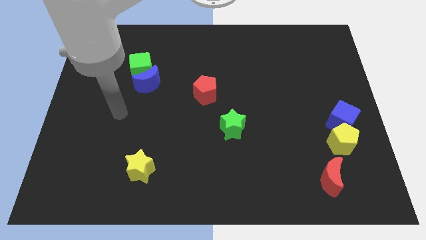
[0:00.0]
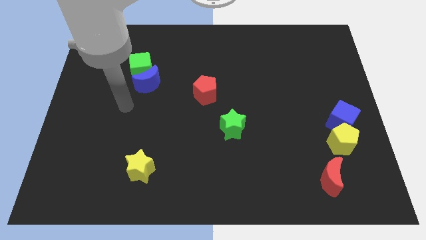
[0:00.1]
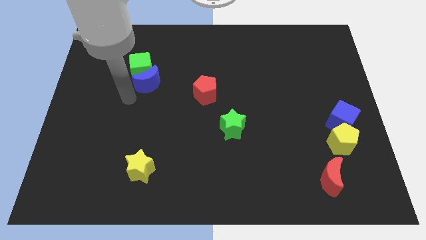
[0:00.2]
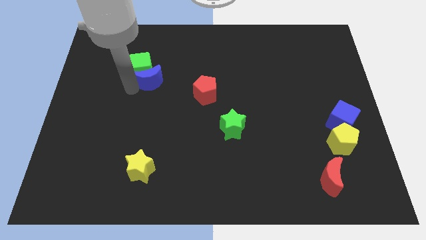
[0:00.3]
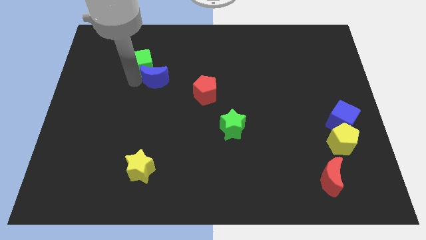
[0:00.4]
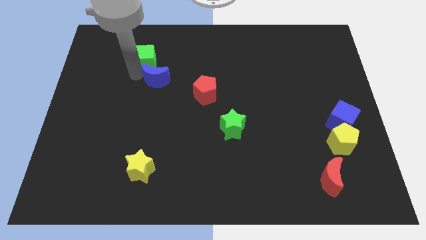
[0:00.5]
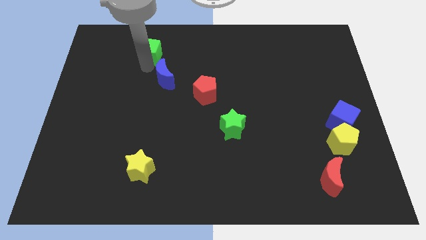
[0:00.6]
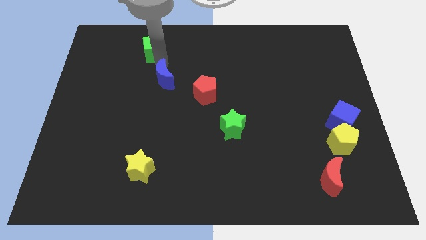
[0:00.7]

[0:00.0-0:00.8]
move the blue moon away from the green cube

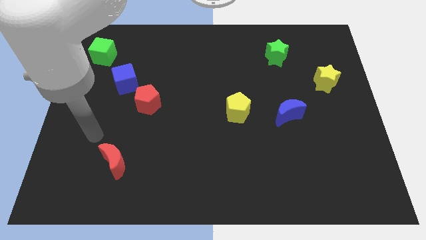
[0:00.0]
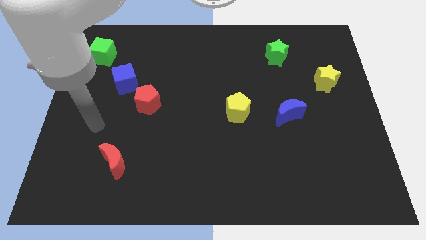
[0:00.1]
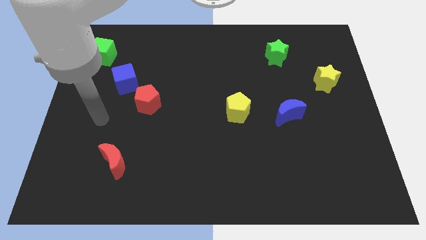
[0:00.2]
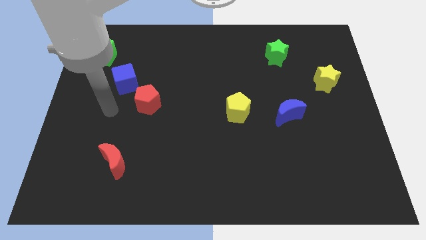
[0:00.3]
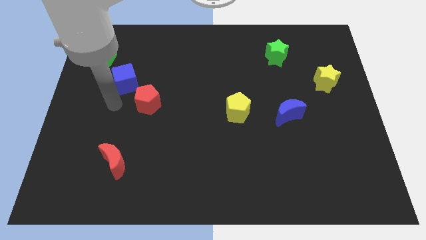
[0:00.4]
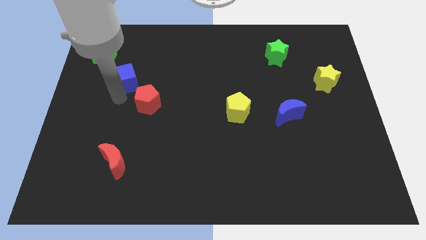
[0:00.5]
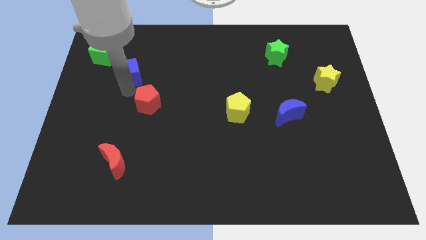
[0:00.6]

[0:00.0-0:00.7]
pull the red pentagon apart from the blue cube

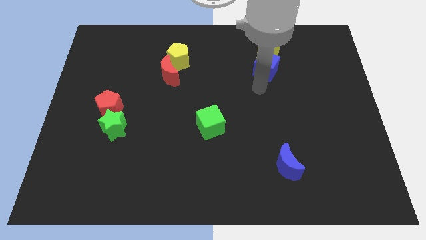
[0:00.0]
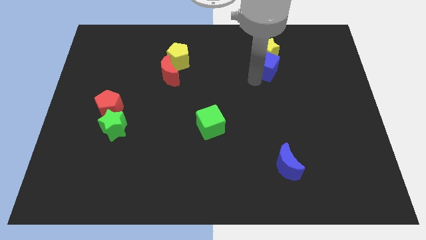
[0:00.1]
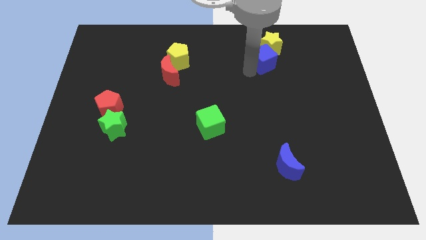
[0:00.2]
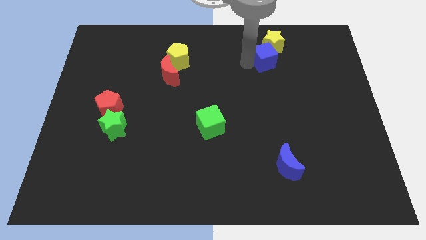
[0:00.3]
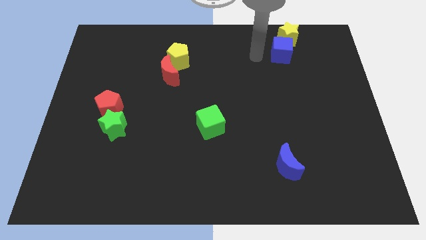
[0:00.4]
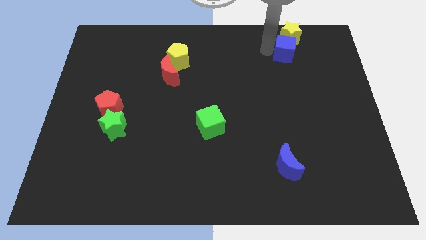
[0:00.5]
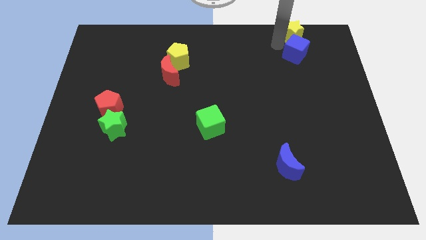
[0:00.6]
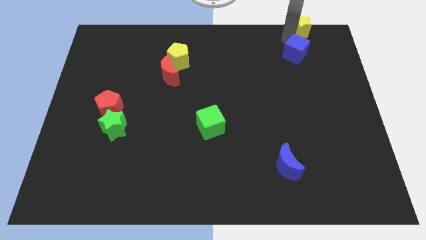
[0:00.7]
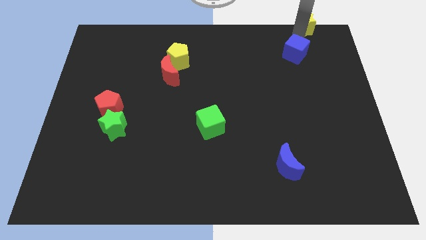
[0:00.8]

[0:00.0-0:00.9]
separate the blue cube from the yellow star

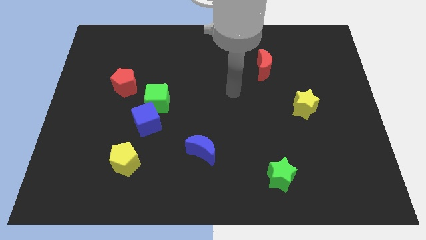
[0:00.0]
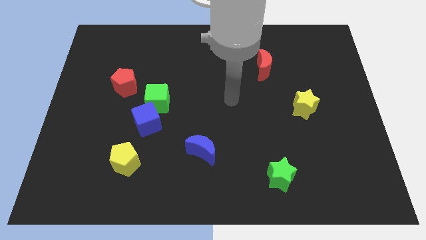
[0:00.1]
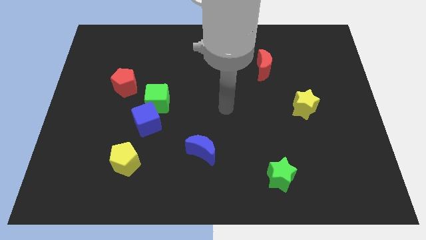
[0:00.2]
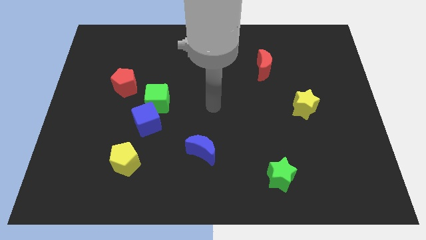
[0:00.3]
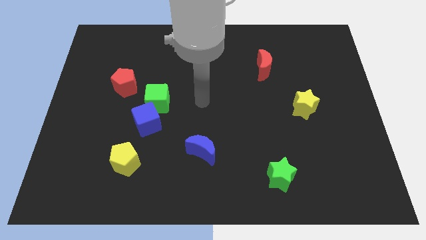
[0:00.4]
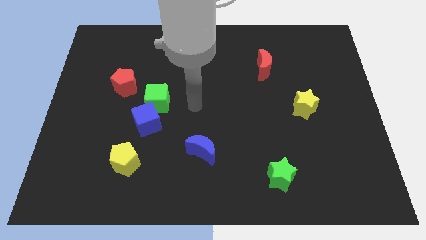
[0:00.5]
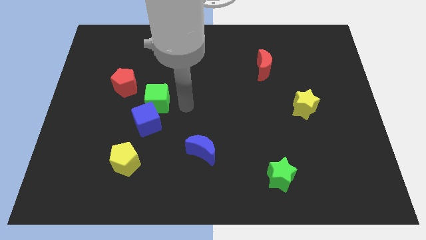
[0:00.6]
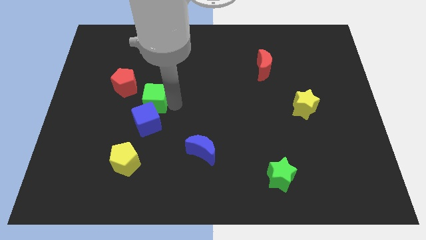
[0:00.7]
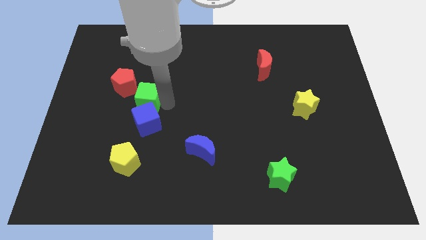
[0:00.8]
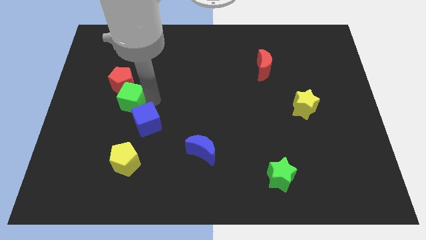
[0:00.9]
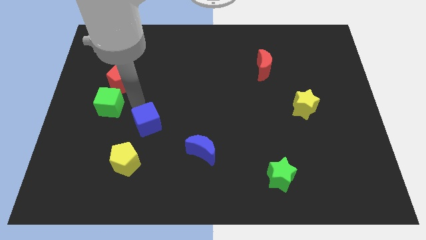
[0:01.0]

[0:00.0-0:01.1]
separate the blue cube from the green cube

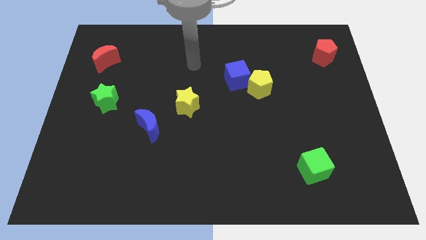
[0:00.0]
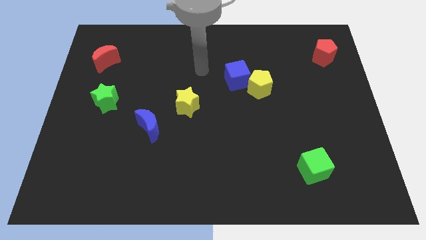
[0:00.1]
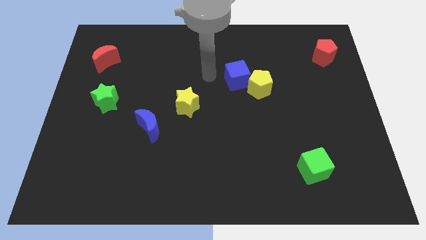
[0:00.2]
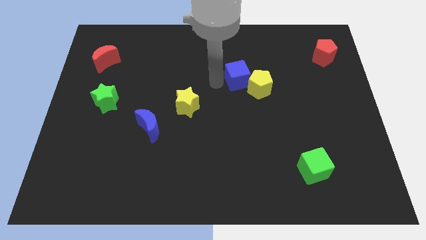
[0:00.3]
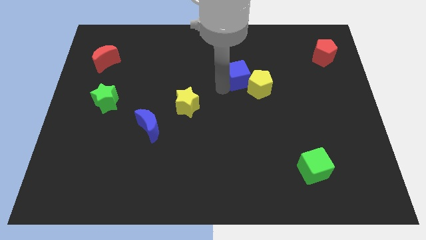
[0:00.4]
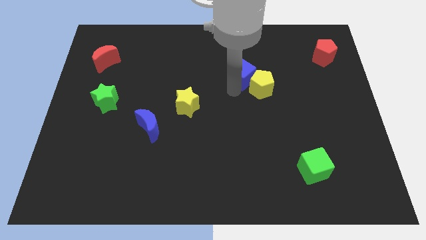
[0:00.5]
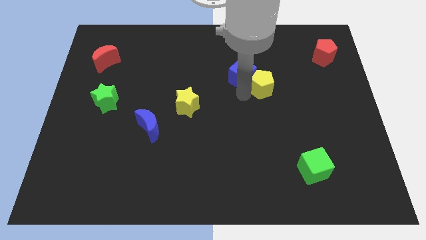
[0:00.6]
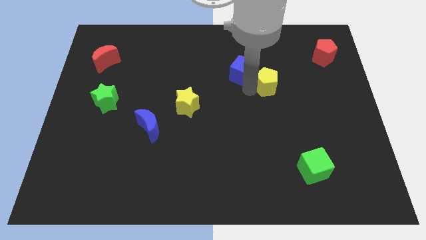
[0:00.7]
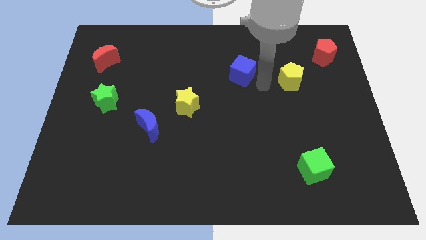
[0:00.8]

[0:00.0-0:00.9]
separate the blue cube from the yellow pentagon

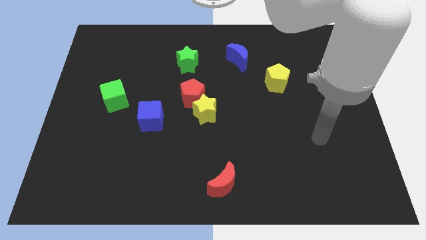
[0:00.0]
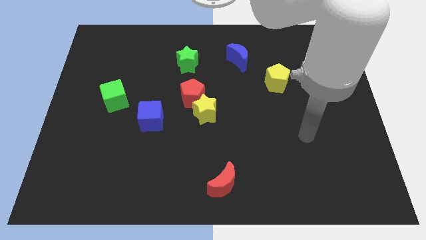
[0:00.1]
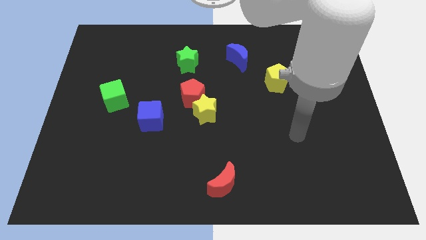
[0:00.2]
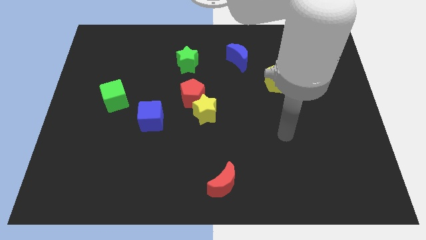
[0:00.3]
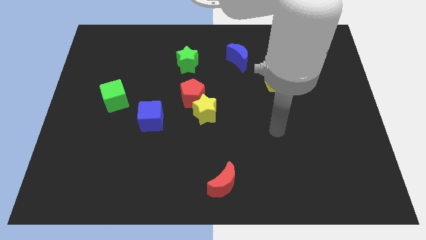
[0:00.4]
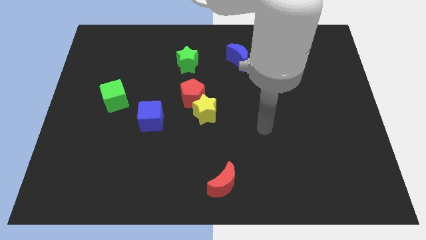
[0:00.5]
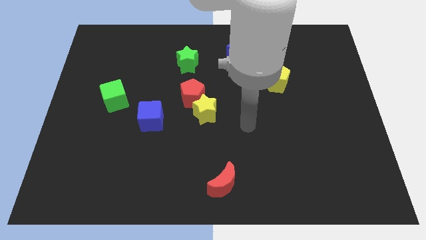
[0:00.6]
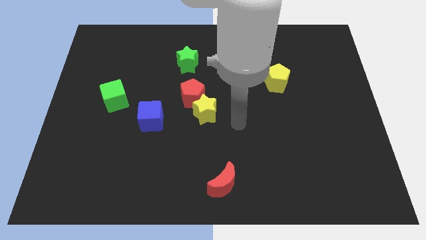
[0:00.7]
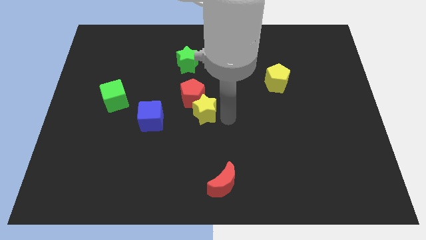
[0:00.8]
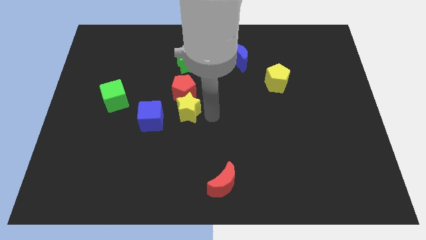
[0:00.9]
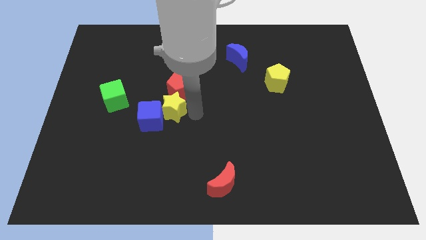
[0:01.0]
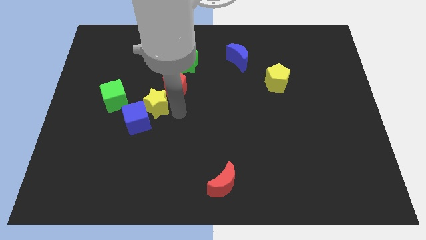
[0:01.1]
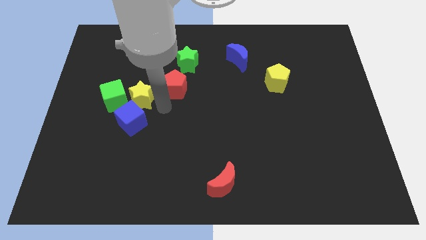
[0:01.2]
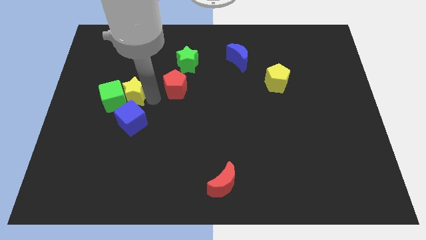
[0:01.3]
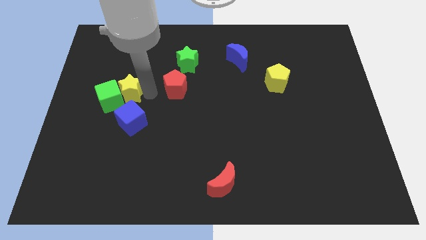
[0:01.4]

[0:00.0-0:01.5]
move the red pentagon away from the yellow star

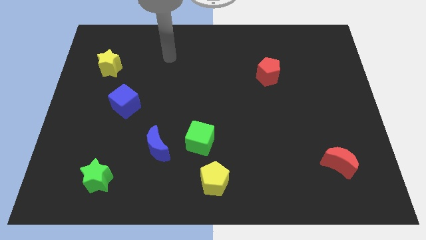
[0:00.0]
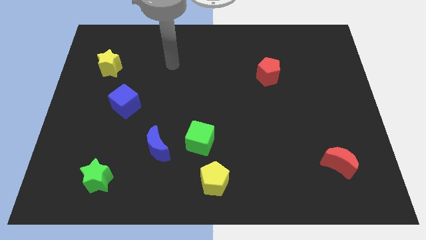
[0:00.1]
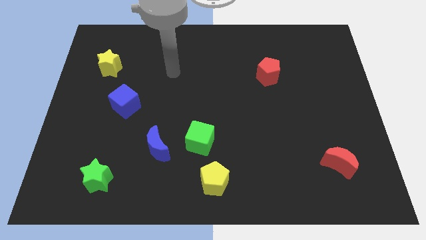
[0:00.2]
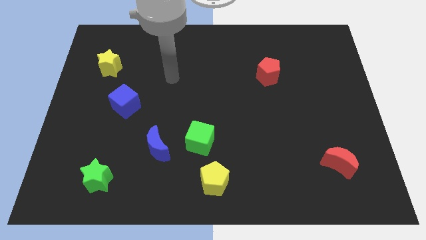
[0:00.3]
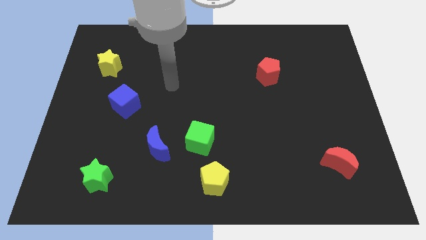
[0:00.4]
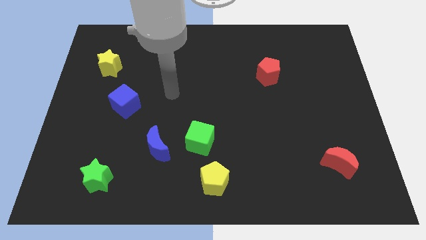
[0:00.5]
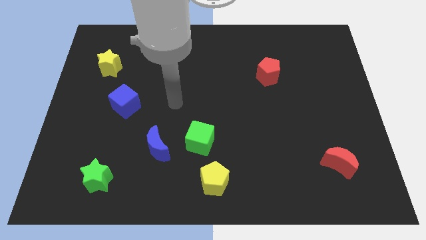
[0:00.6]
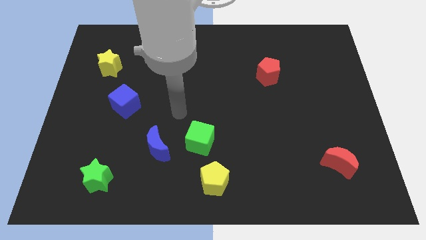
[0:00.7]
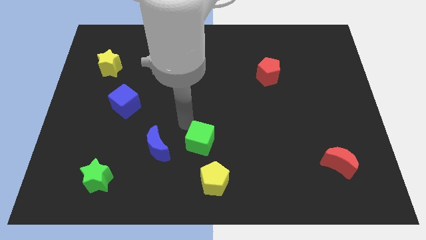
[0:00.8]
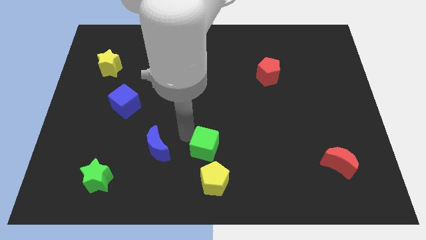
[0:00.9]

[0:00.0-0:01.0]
separate the blue moon from the green cube

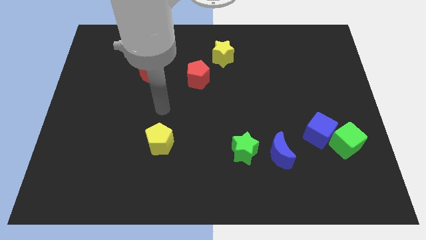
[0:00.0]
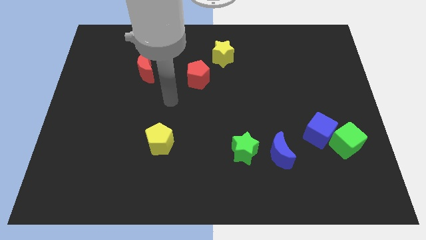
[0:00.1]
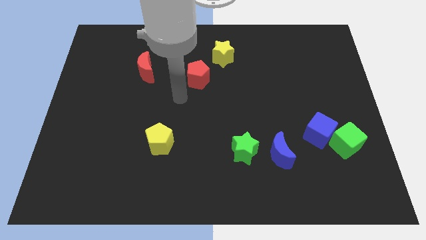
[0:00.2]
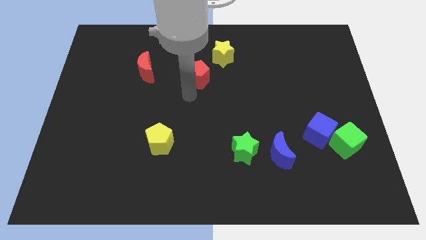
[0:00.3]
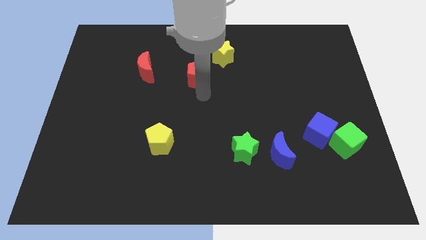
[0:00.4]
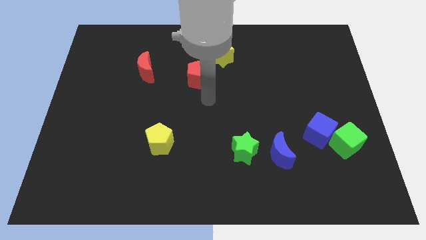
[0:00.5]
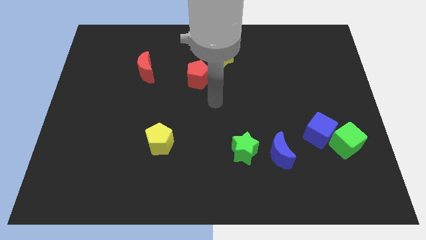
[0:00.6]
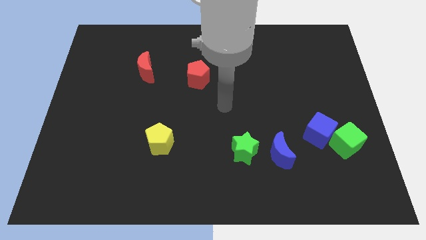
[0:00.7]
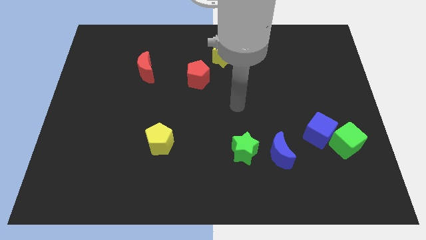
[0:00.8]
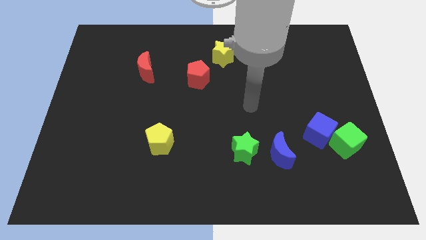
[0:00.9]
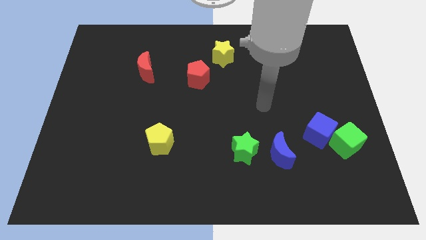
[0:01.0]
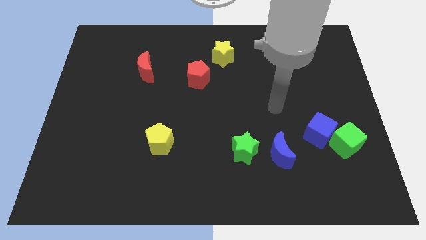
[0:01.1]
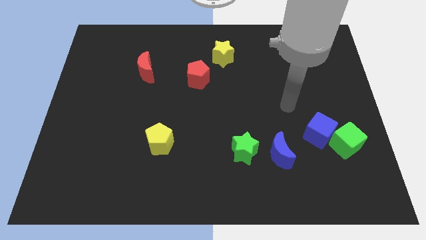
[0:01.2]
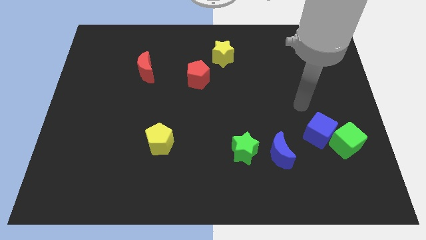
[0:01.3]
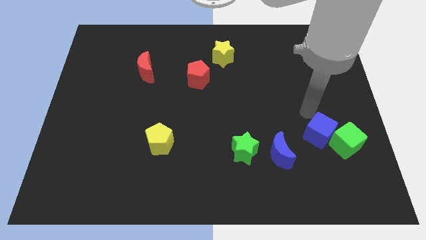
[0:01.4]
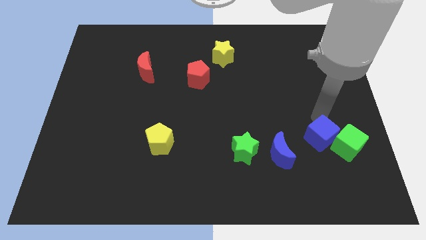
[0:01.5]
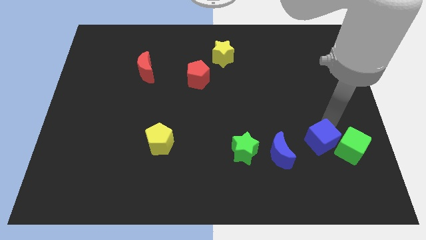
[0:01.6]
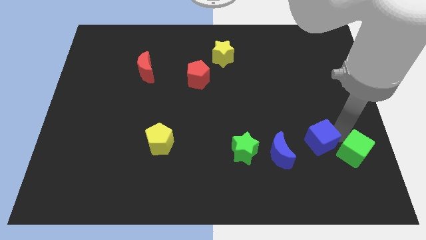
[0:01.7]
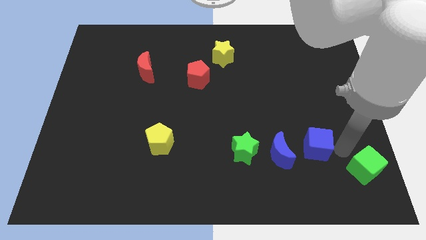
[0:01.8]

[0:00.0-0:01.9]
move the blue cube away from the green cube

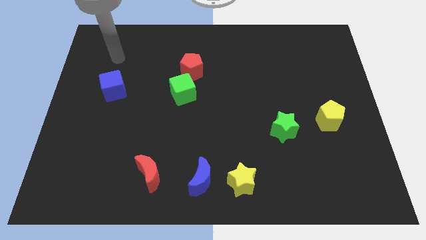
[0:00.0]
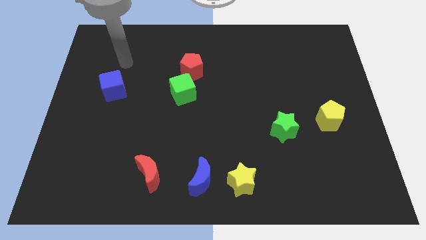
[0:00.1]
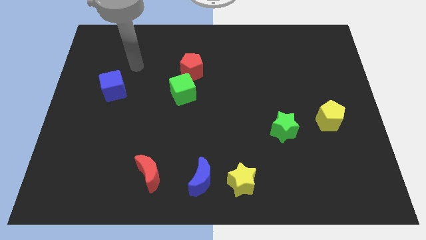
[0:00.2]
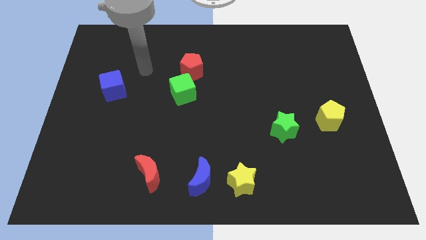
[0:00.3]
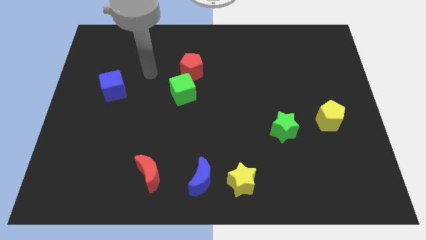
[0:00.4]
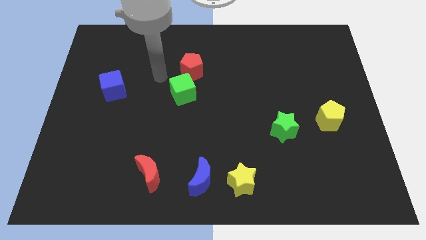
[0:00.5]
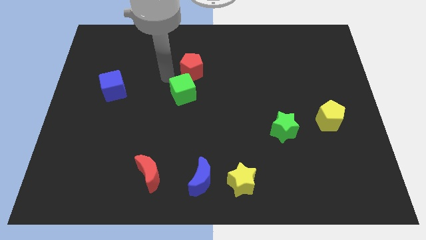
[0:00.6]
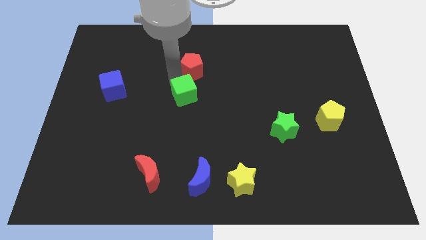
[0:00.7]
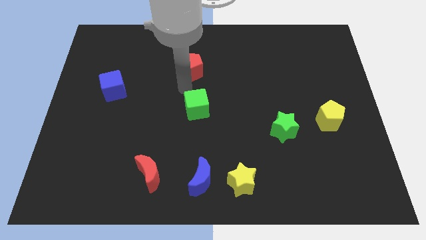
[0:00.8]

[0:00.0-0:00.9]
separate the red pentagon from the green cube
